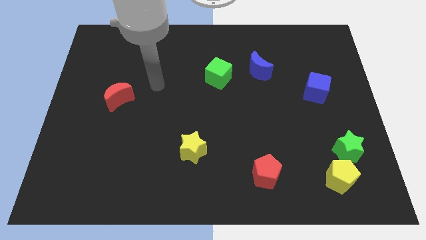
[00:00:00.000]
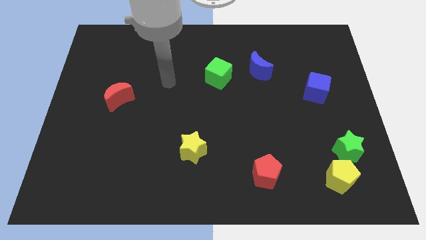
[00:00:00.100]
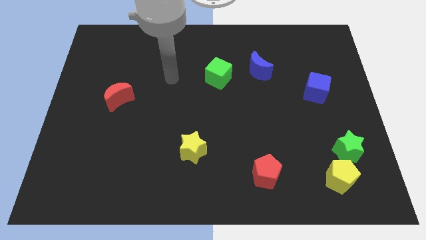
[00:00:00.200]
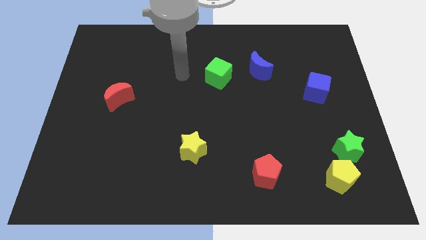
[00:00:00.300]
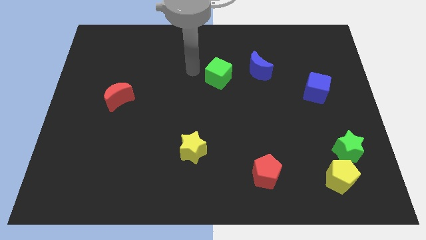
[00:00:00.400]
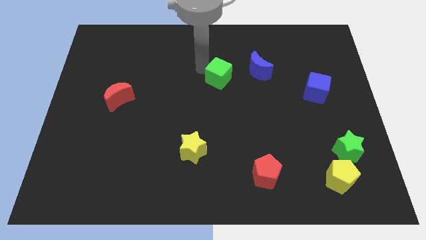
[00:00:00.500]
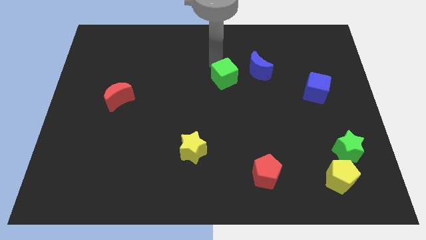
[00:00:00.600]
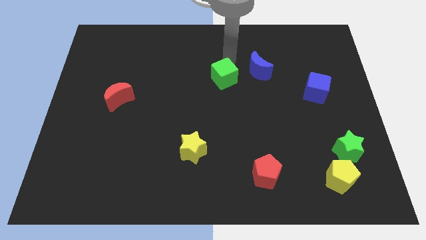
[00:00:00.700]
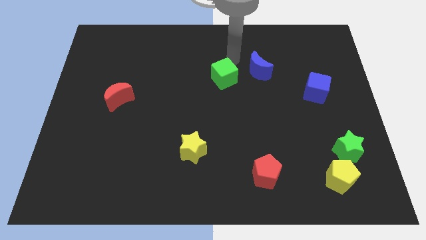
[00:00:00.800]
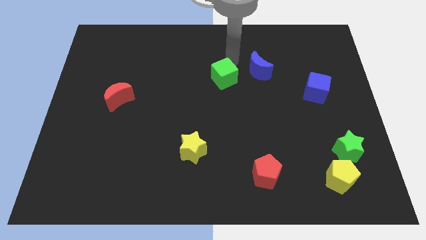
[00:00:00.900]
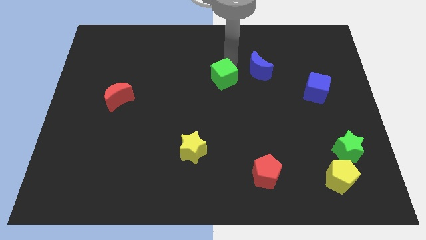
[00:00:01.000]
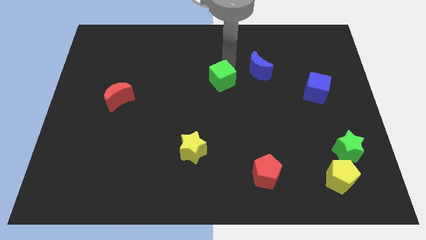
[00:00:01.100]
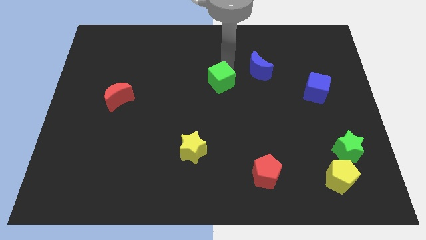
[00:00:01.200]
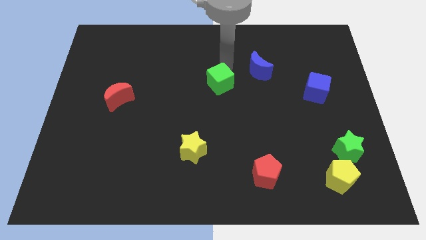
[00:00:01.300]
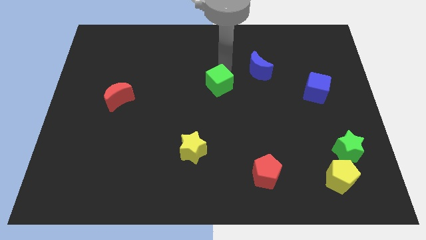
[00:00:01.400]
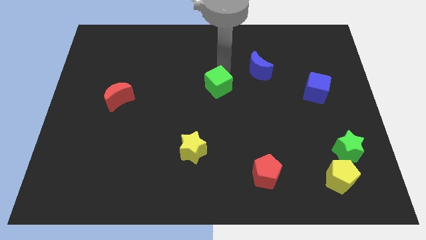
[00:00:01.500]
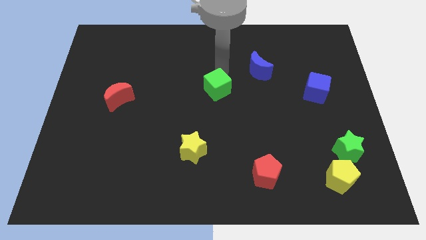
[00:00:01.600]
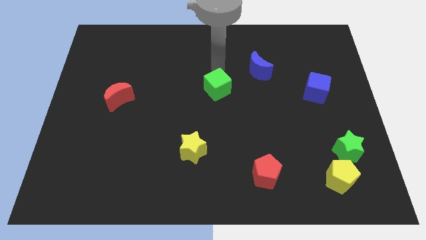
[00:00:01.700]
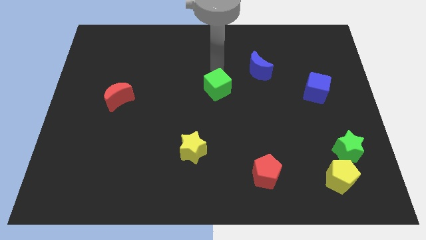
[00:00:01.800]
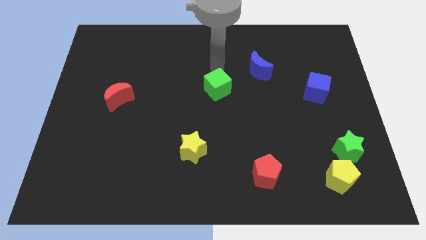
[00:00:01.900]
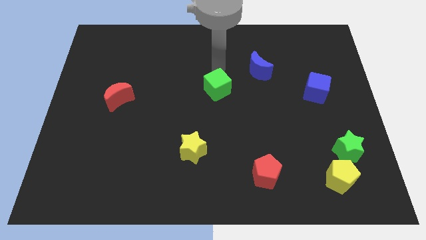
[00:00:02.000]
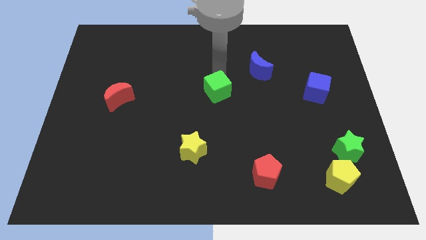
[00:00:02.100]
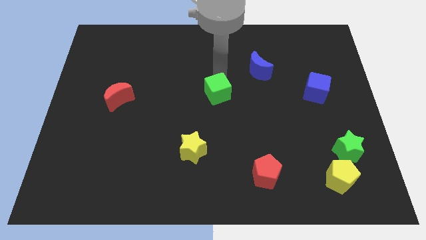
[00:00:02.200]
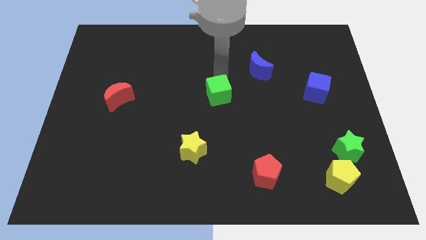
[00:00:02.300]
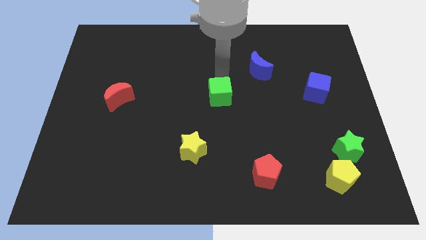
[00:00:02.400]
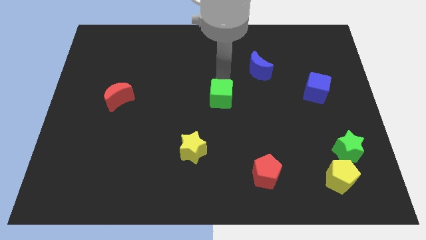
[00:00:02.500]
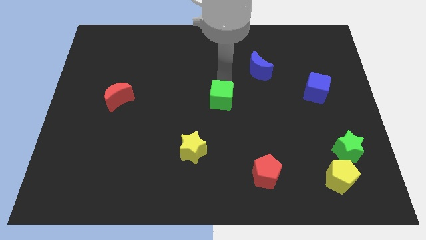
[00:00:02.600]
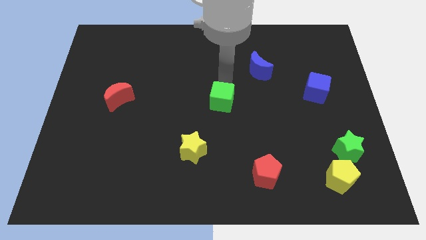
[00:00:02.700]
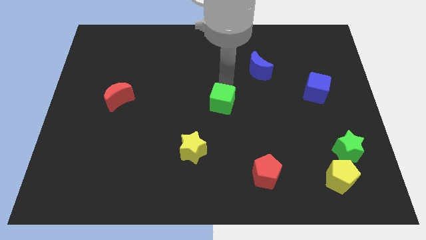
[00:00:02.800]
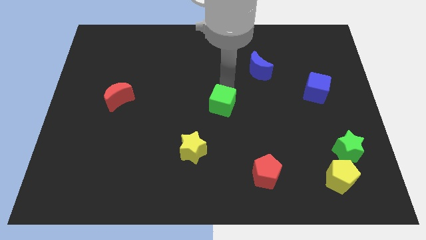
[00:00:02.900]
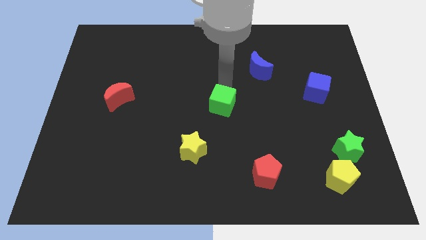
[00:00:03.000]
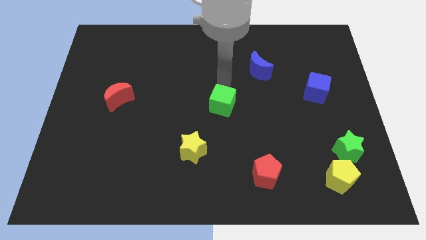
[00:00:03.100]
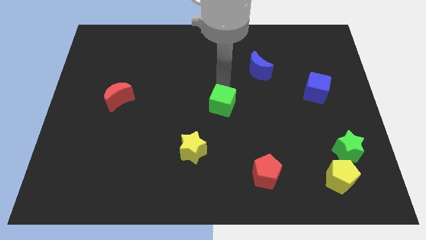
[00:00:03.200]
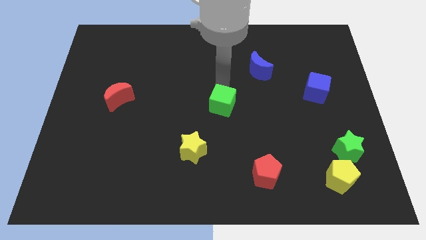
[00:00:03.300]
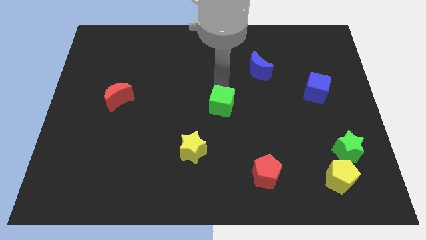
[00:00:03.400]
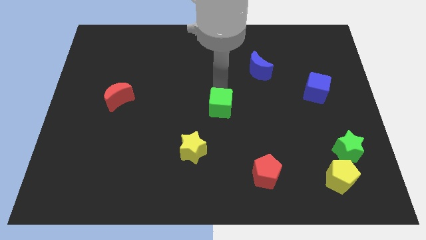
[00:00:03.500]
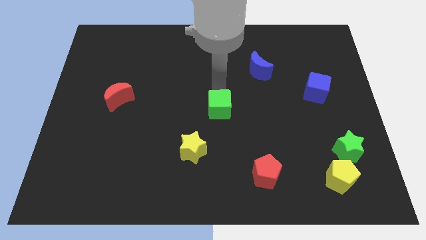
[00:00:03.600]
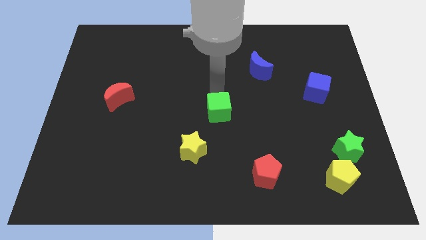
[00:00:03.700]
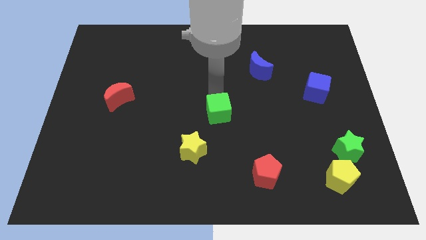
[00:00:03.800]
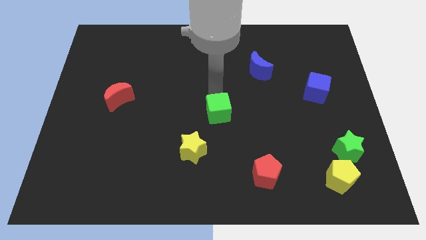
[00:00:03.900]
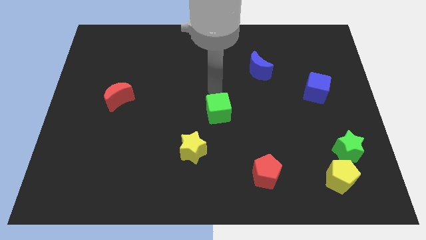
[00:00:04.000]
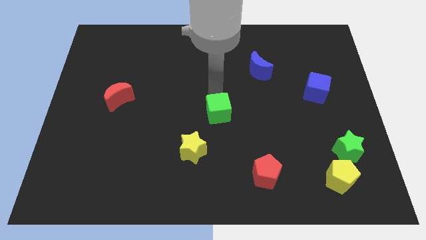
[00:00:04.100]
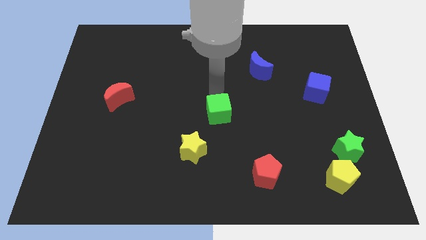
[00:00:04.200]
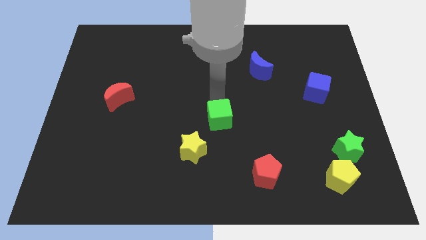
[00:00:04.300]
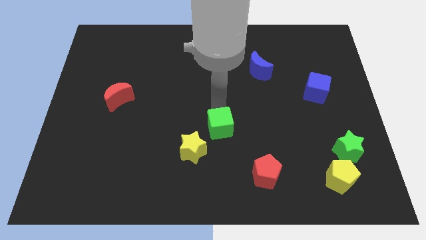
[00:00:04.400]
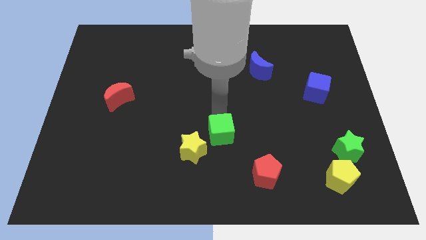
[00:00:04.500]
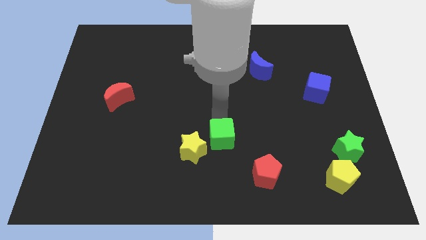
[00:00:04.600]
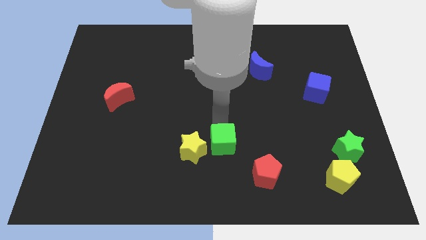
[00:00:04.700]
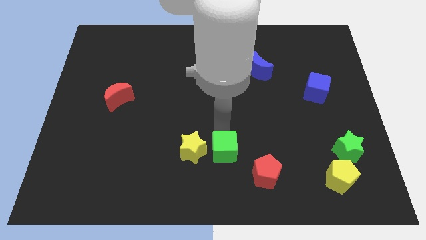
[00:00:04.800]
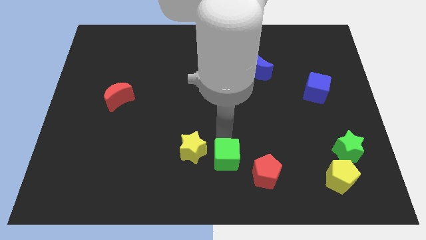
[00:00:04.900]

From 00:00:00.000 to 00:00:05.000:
move the green cube to the bottom

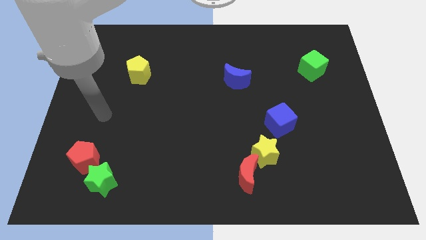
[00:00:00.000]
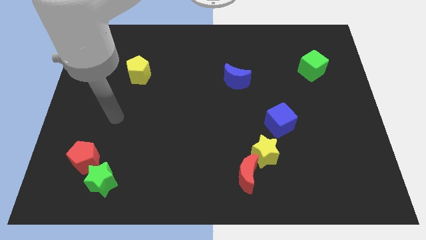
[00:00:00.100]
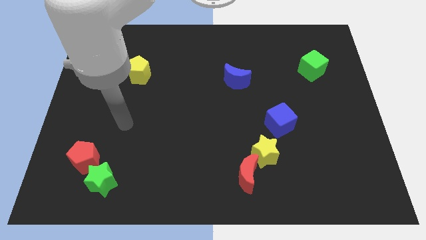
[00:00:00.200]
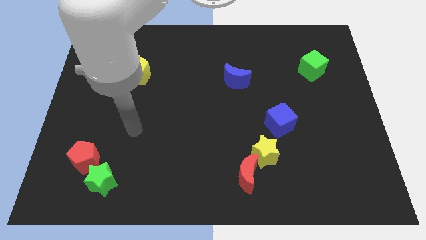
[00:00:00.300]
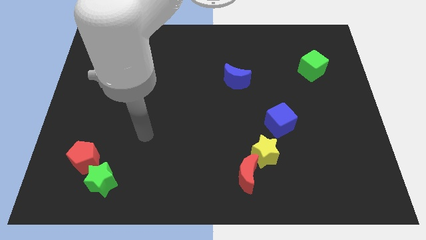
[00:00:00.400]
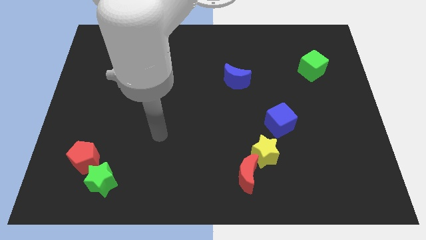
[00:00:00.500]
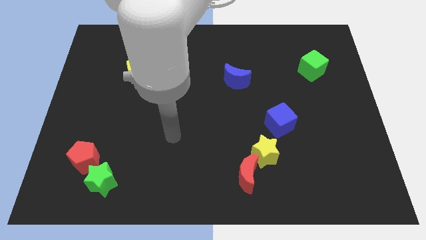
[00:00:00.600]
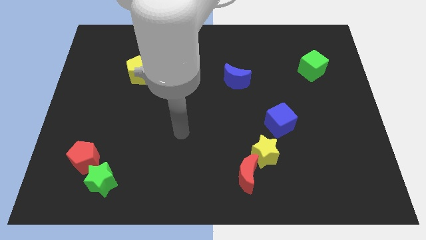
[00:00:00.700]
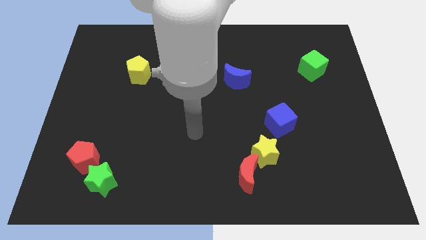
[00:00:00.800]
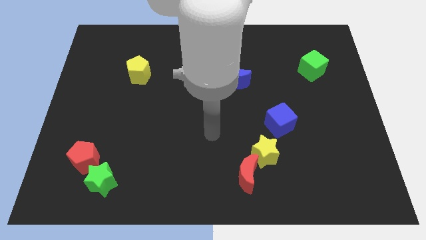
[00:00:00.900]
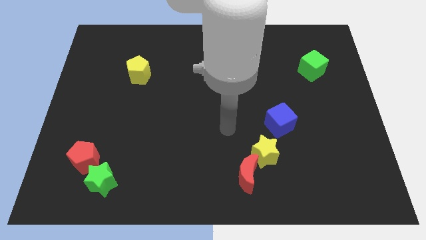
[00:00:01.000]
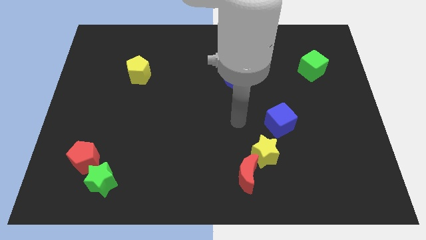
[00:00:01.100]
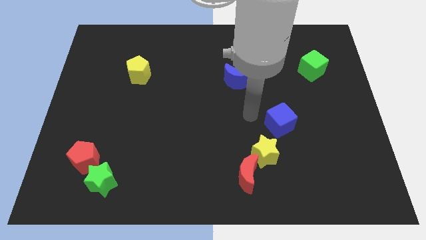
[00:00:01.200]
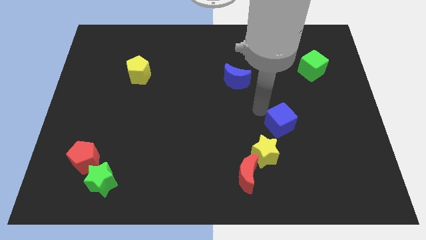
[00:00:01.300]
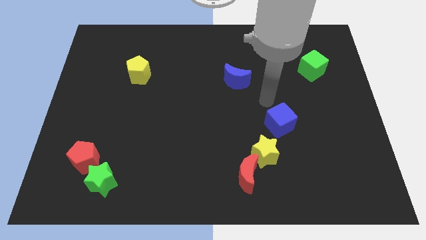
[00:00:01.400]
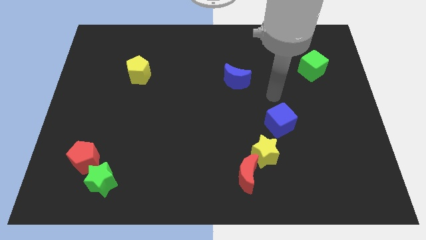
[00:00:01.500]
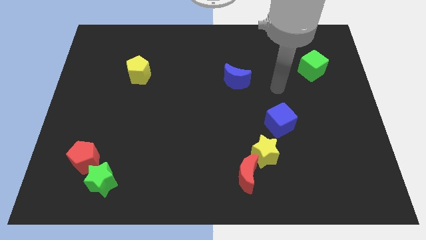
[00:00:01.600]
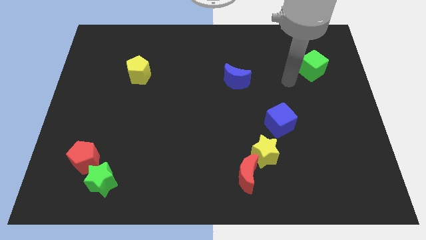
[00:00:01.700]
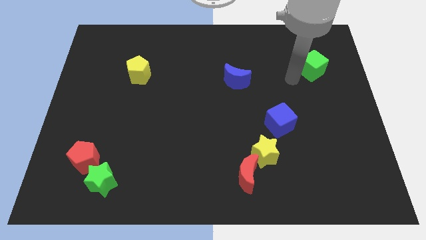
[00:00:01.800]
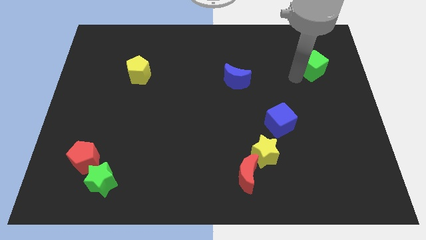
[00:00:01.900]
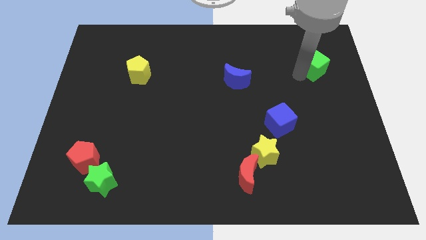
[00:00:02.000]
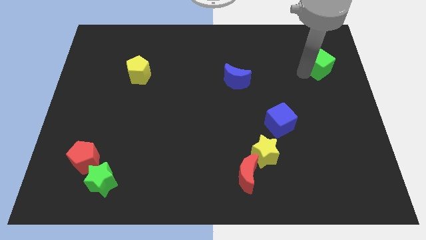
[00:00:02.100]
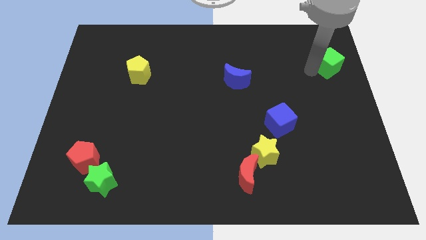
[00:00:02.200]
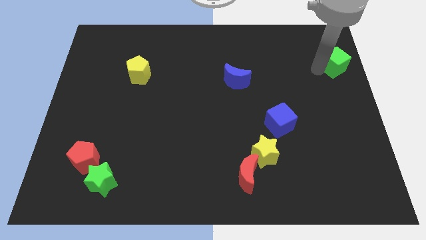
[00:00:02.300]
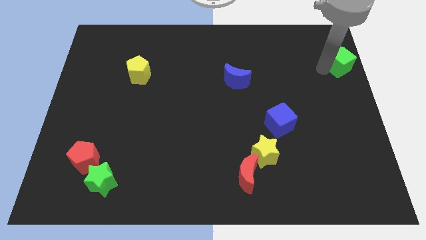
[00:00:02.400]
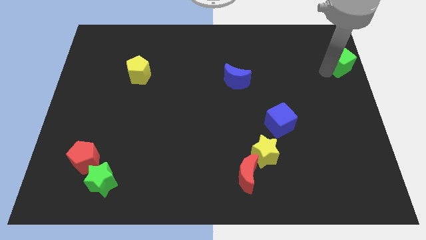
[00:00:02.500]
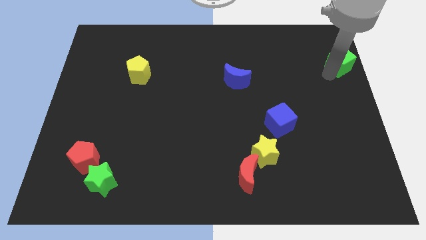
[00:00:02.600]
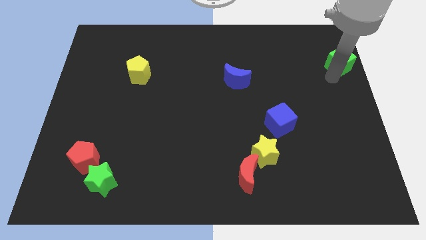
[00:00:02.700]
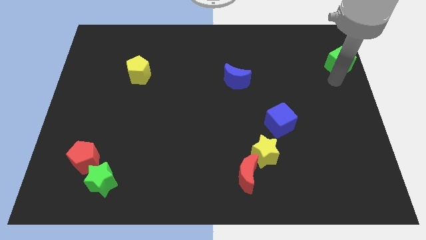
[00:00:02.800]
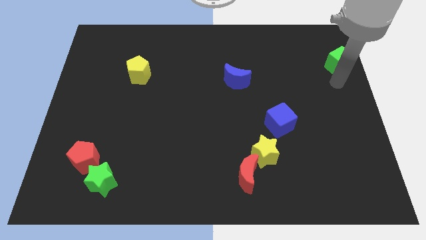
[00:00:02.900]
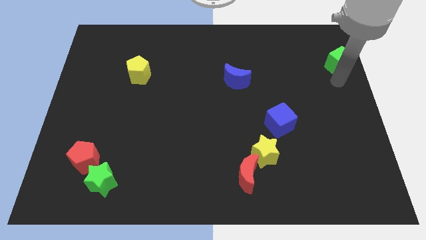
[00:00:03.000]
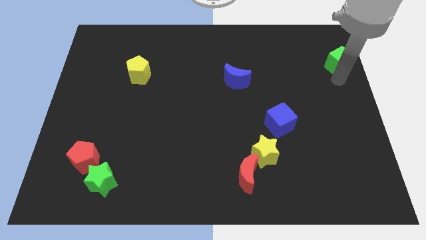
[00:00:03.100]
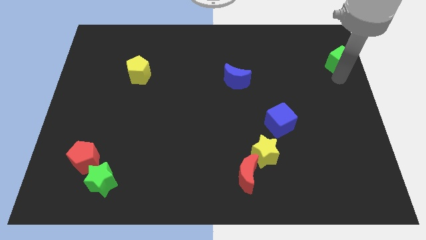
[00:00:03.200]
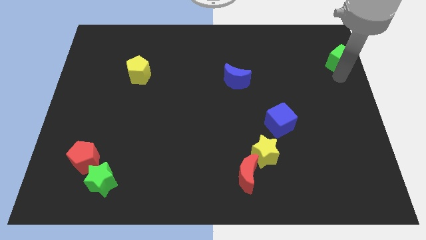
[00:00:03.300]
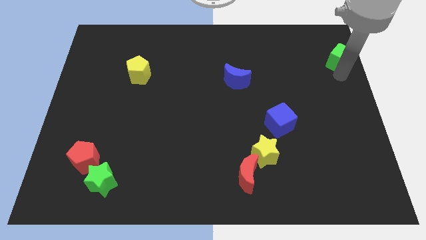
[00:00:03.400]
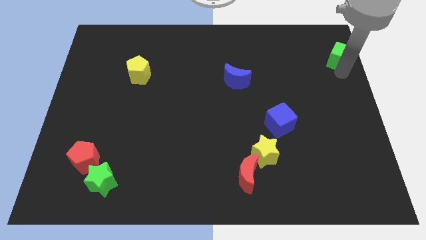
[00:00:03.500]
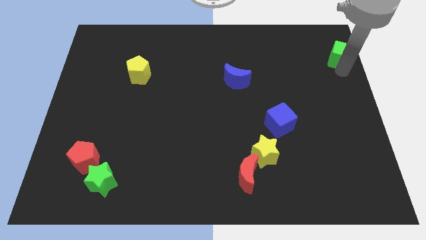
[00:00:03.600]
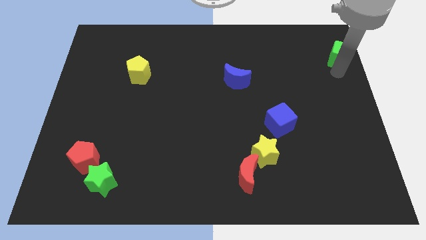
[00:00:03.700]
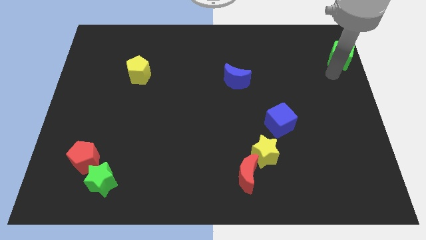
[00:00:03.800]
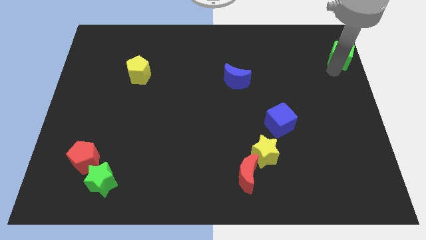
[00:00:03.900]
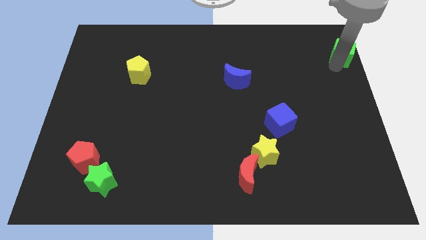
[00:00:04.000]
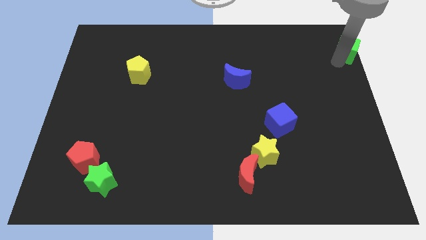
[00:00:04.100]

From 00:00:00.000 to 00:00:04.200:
put the green cube to the top right of the board
